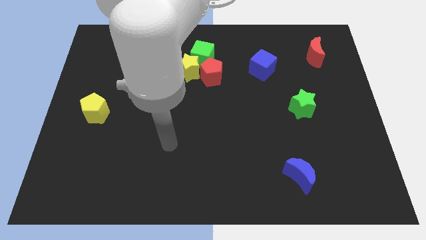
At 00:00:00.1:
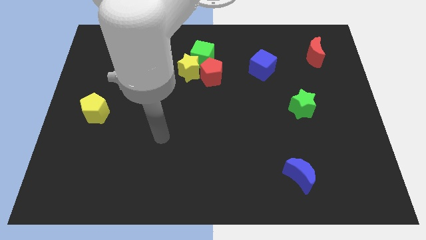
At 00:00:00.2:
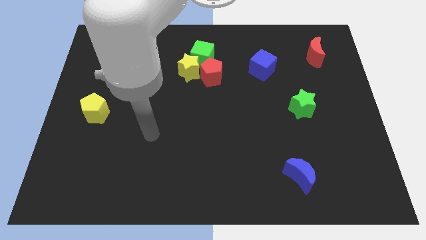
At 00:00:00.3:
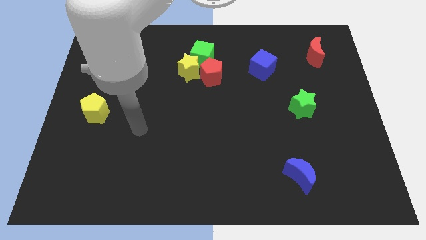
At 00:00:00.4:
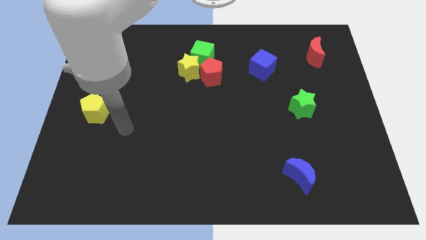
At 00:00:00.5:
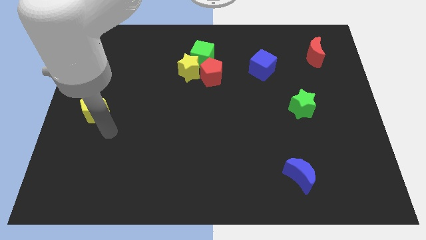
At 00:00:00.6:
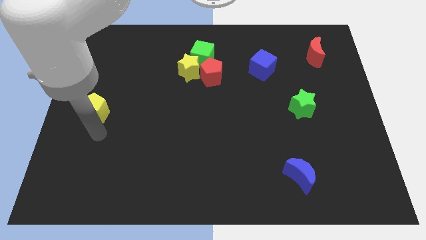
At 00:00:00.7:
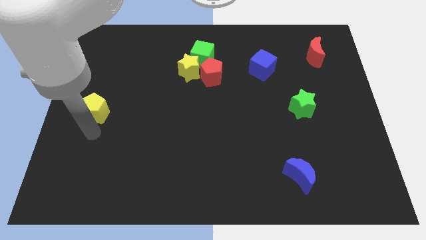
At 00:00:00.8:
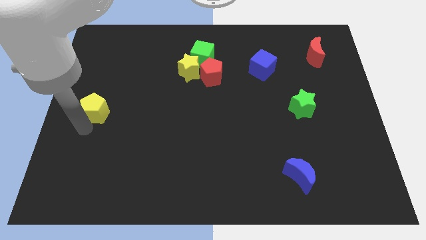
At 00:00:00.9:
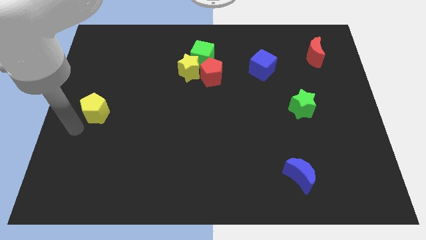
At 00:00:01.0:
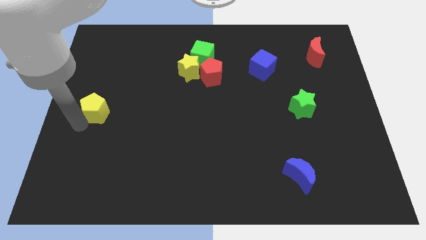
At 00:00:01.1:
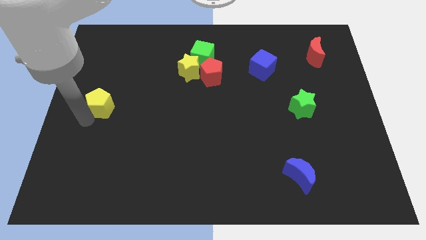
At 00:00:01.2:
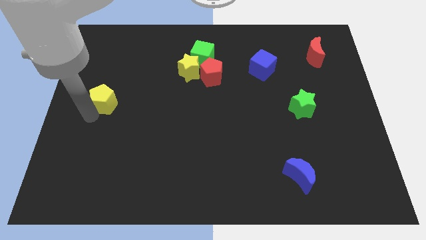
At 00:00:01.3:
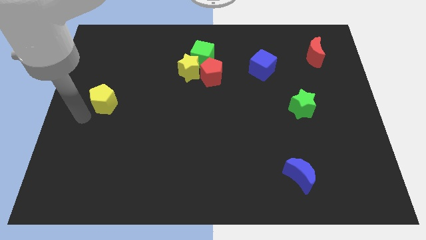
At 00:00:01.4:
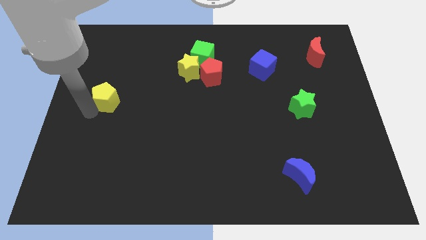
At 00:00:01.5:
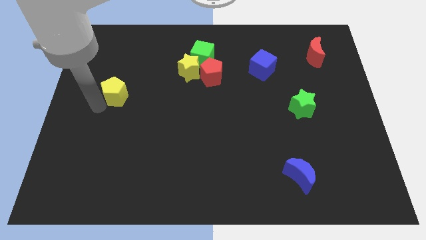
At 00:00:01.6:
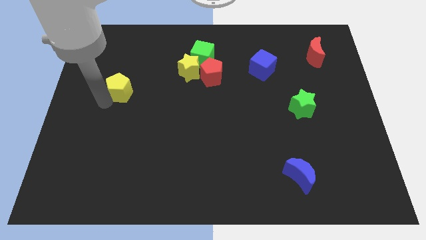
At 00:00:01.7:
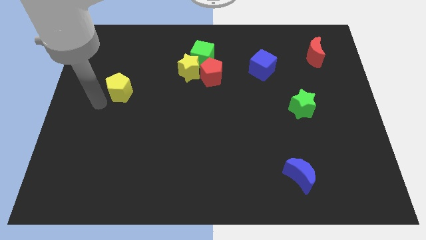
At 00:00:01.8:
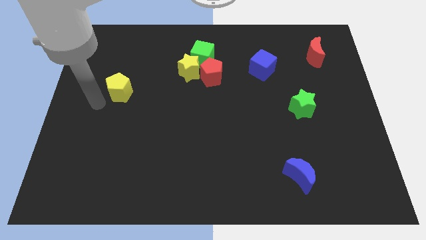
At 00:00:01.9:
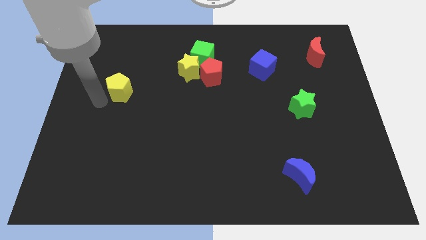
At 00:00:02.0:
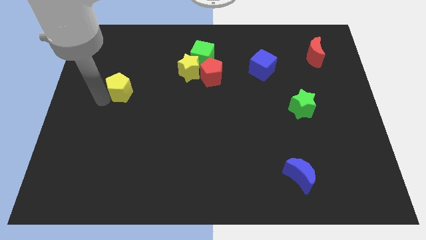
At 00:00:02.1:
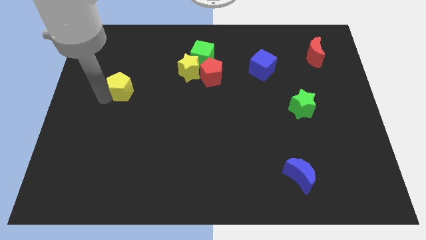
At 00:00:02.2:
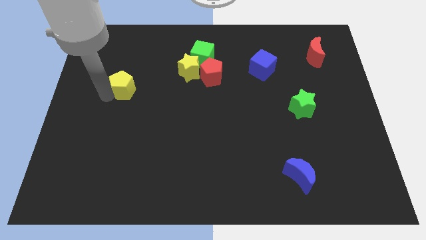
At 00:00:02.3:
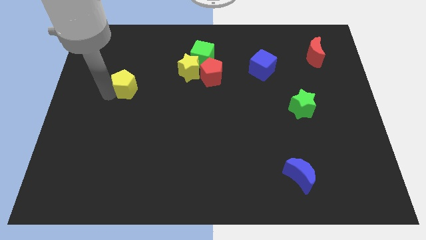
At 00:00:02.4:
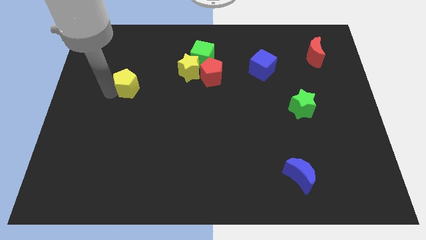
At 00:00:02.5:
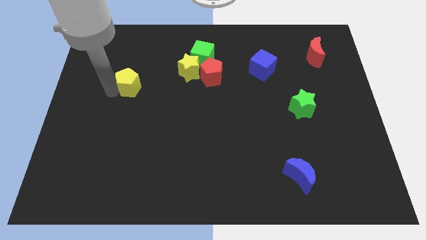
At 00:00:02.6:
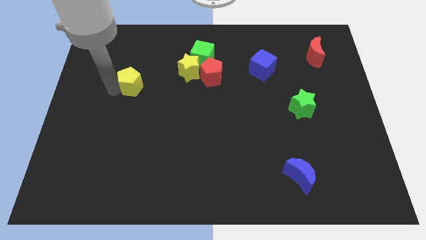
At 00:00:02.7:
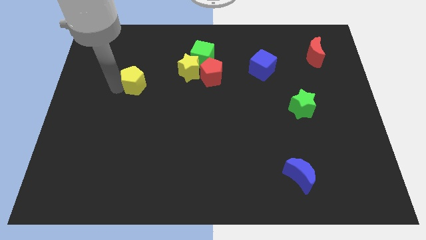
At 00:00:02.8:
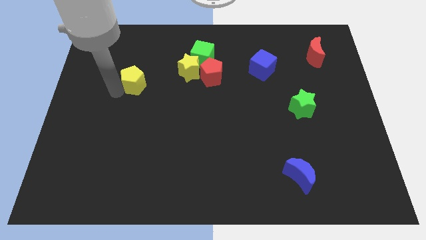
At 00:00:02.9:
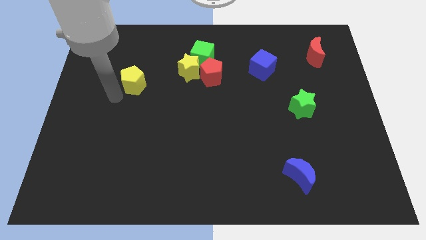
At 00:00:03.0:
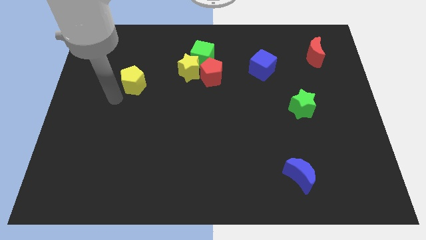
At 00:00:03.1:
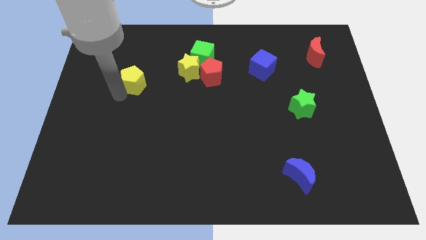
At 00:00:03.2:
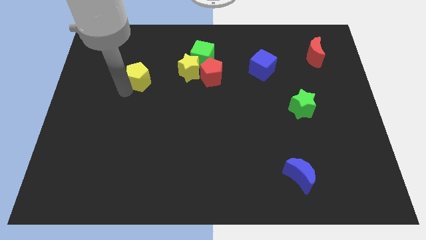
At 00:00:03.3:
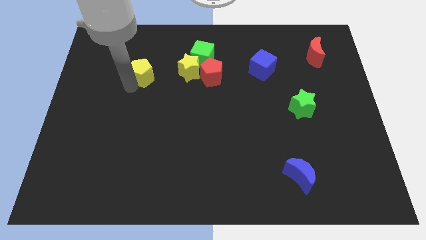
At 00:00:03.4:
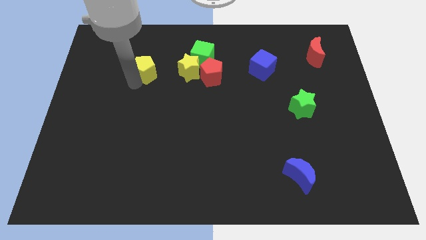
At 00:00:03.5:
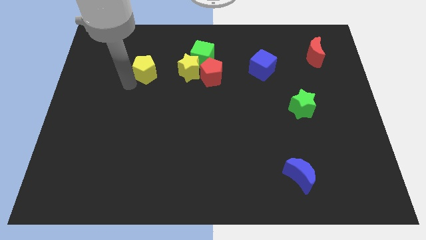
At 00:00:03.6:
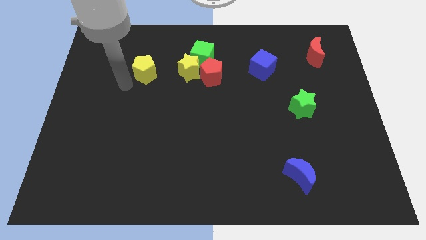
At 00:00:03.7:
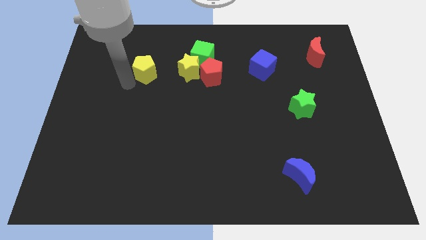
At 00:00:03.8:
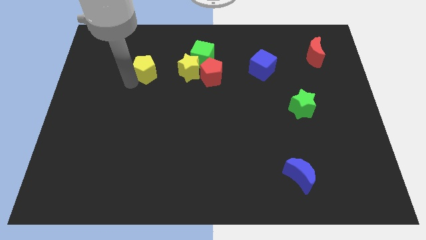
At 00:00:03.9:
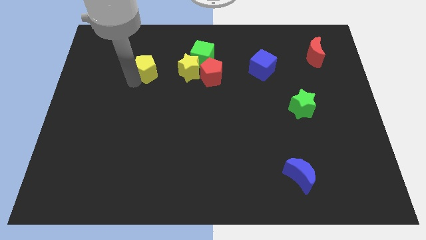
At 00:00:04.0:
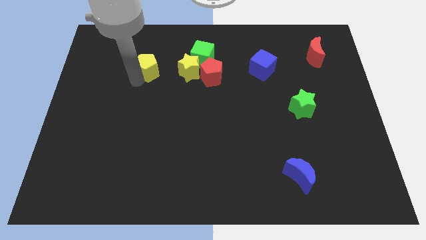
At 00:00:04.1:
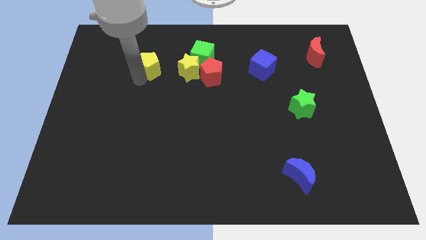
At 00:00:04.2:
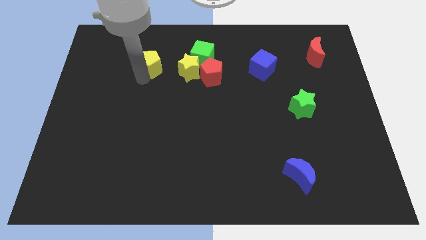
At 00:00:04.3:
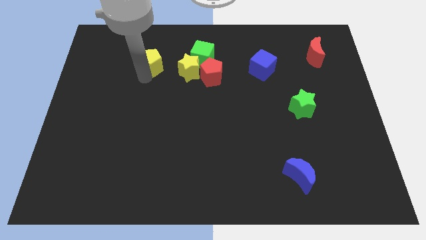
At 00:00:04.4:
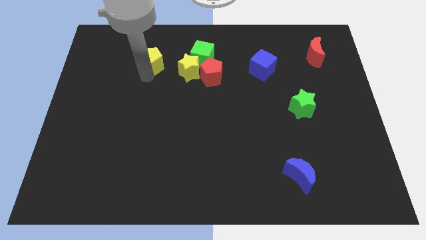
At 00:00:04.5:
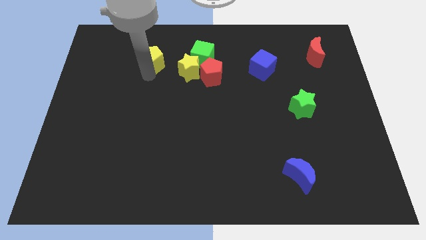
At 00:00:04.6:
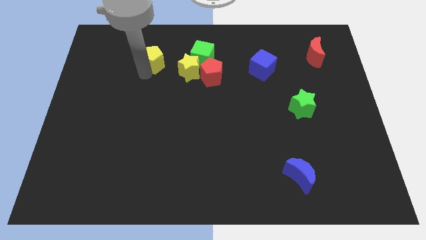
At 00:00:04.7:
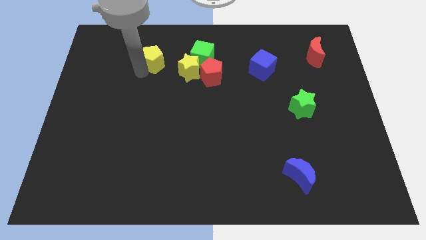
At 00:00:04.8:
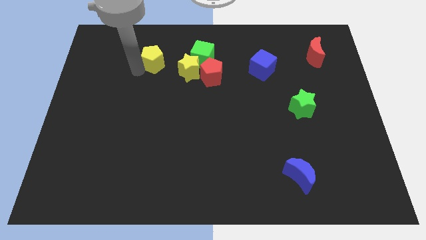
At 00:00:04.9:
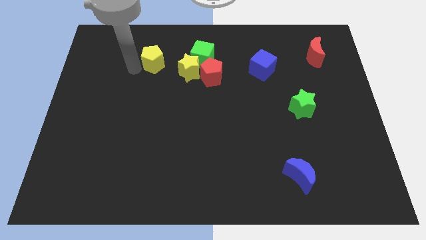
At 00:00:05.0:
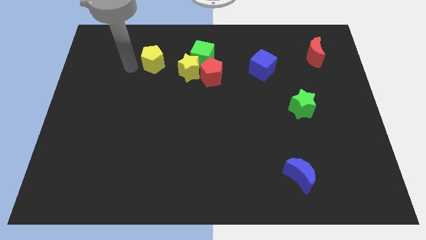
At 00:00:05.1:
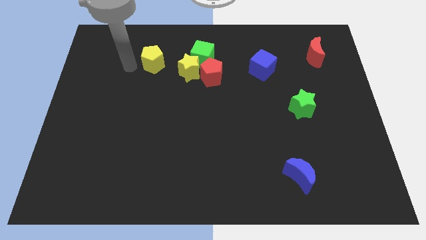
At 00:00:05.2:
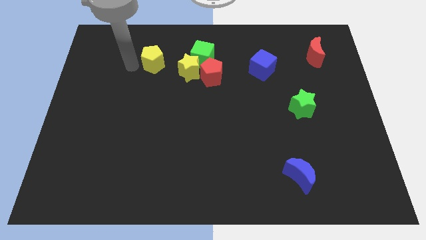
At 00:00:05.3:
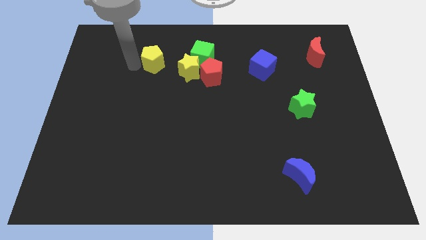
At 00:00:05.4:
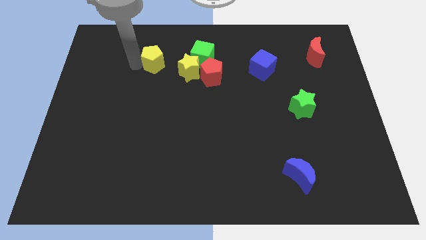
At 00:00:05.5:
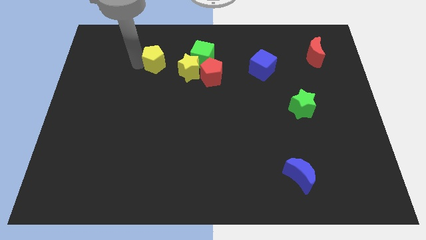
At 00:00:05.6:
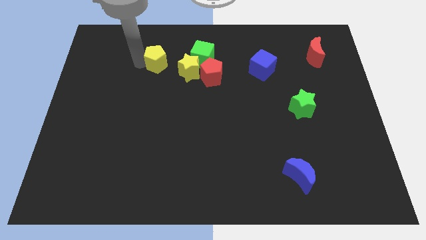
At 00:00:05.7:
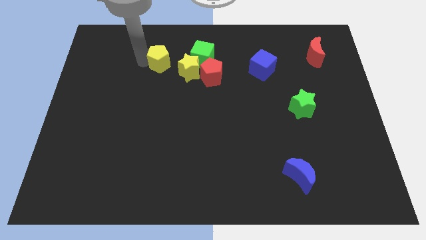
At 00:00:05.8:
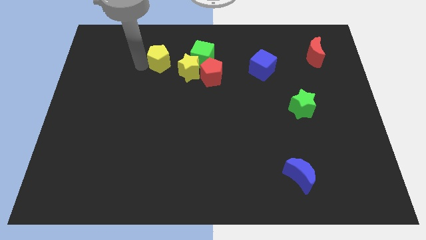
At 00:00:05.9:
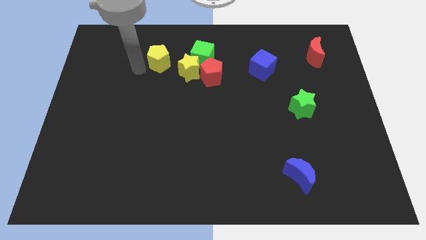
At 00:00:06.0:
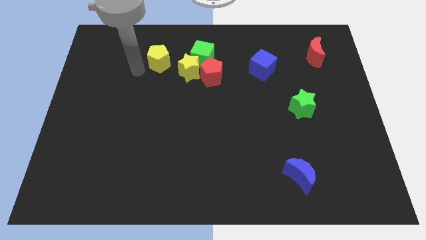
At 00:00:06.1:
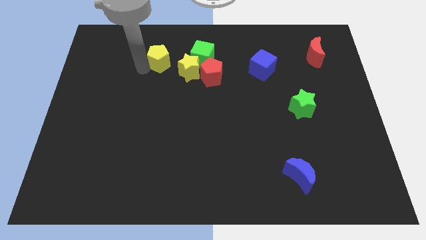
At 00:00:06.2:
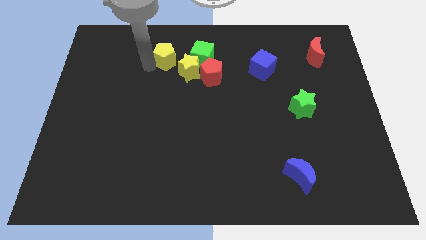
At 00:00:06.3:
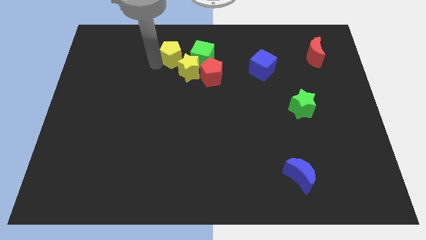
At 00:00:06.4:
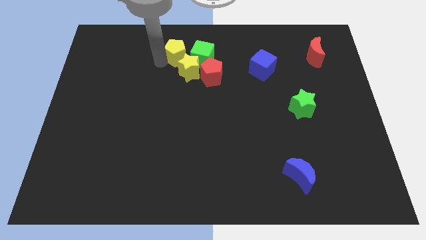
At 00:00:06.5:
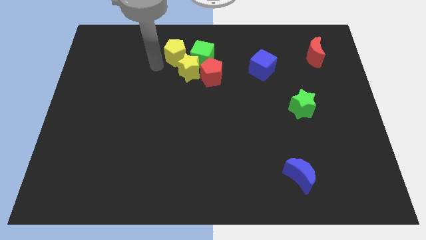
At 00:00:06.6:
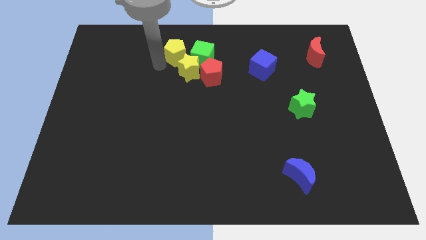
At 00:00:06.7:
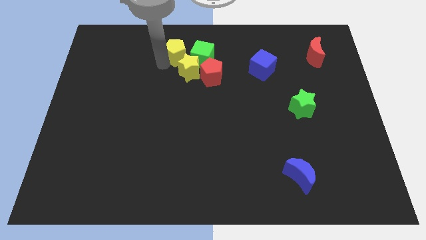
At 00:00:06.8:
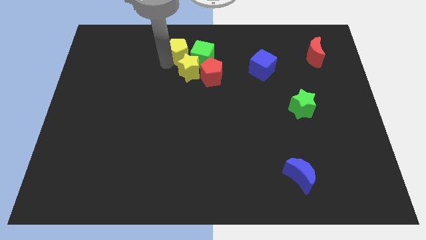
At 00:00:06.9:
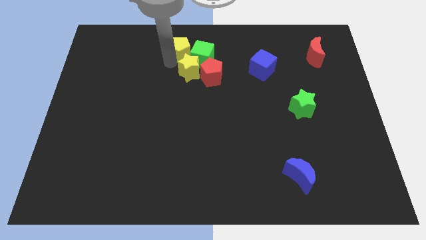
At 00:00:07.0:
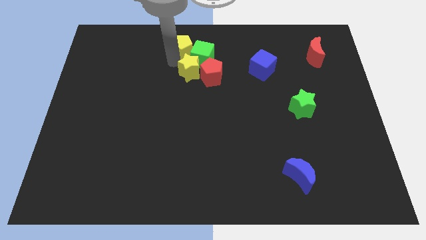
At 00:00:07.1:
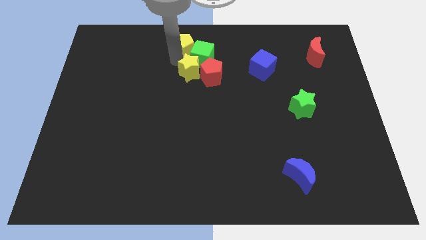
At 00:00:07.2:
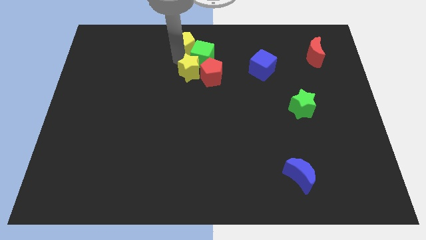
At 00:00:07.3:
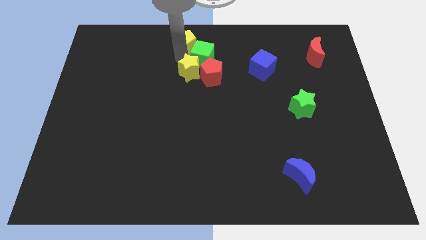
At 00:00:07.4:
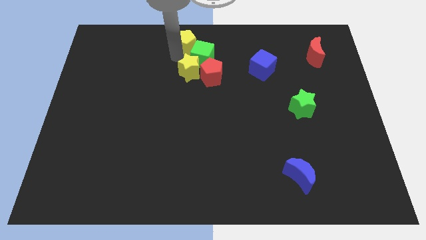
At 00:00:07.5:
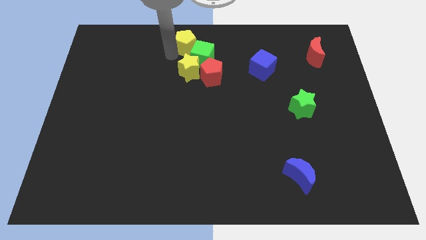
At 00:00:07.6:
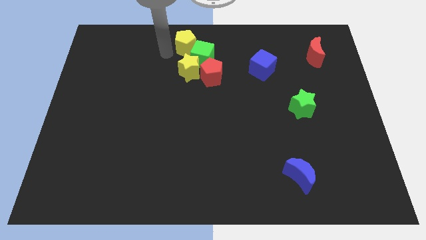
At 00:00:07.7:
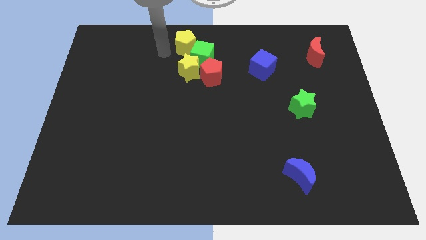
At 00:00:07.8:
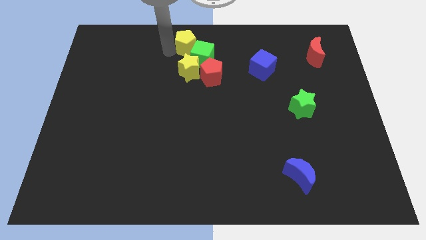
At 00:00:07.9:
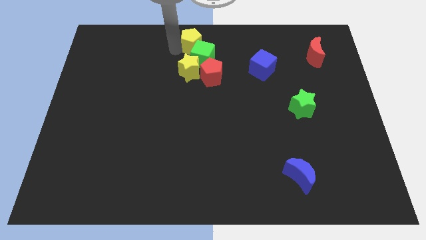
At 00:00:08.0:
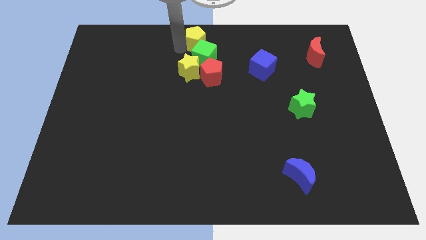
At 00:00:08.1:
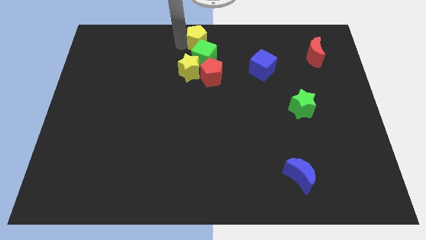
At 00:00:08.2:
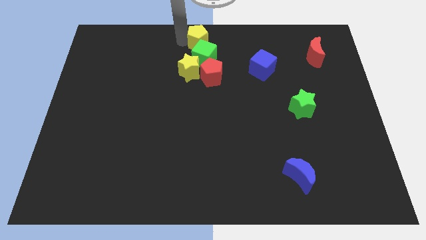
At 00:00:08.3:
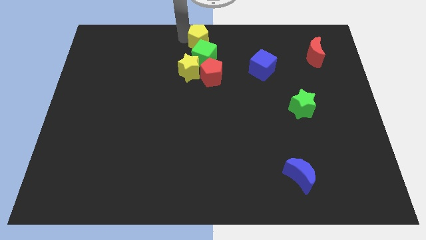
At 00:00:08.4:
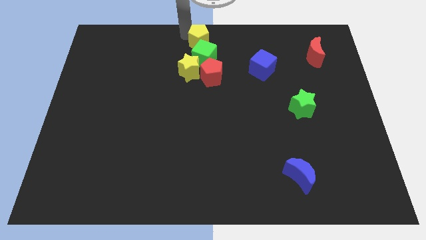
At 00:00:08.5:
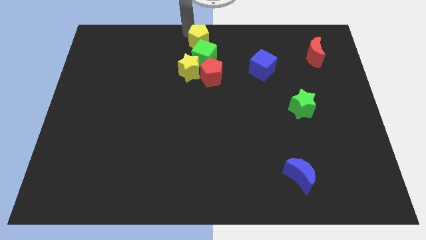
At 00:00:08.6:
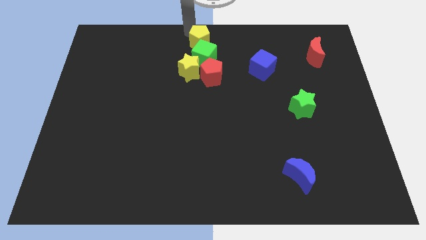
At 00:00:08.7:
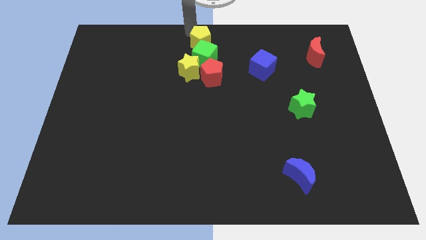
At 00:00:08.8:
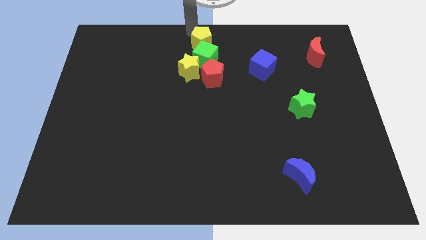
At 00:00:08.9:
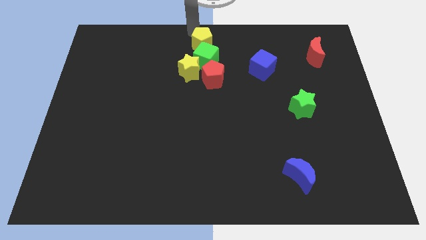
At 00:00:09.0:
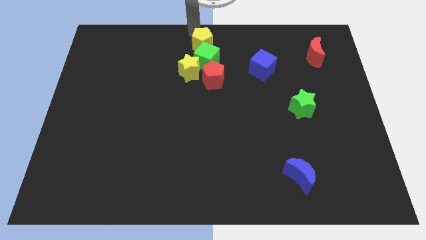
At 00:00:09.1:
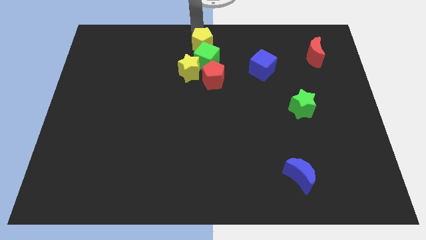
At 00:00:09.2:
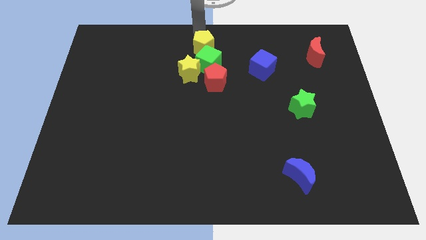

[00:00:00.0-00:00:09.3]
put the yellow pentagon to the top right side of the yellow star
